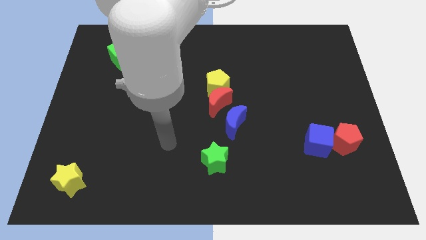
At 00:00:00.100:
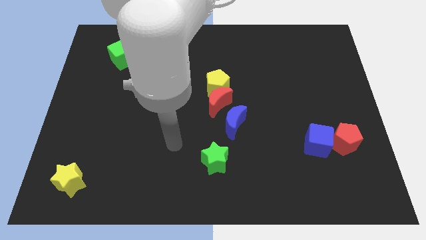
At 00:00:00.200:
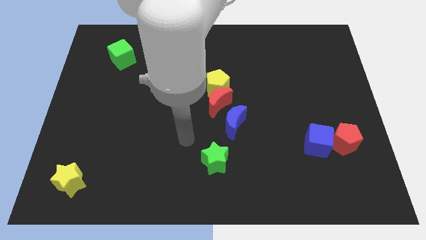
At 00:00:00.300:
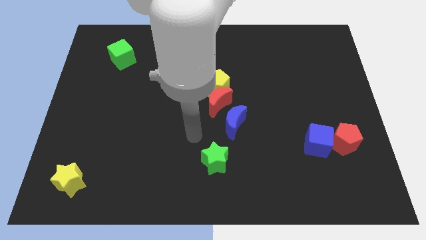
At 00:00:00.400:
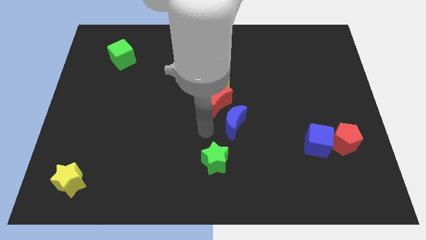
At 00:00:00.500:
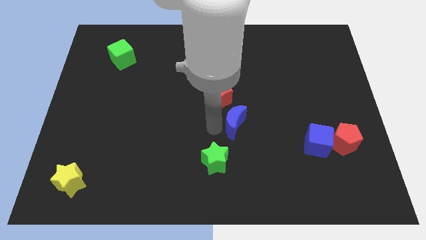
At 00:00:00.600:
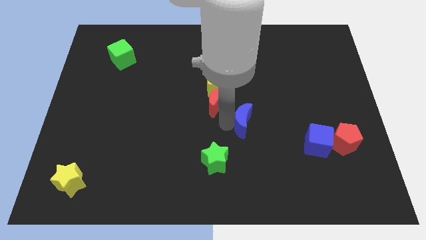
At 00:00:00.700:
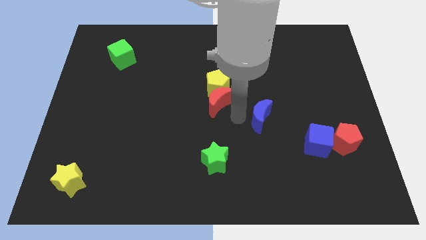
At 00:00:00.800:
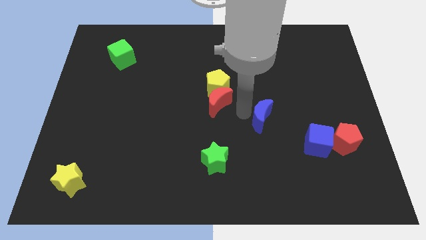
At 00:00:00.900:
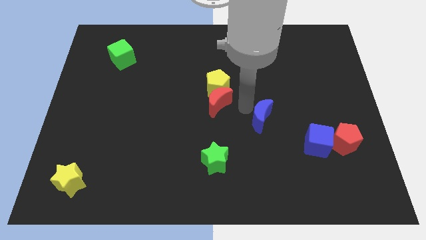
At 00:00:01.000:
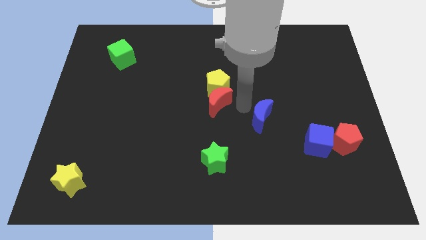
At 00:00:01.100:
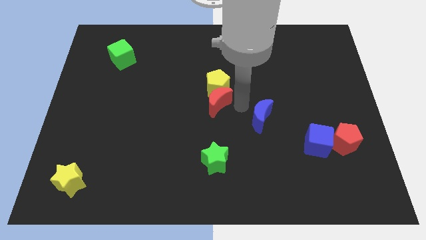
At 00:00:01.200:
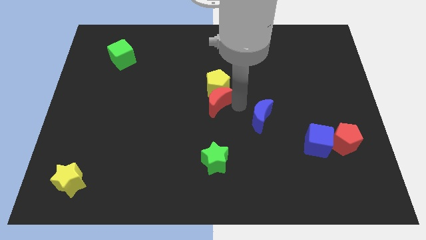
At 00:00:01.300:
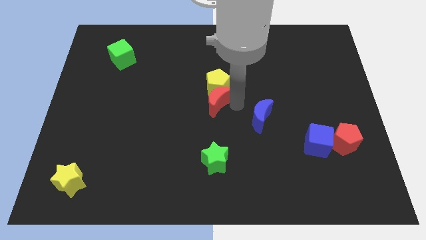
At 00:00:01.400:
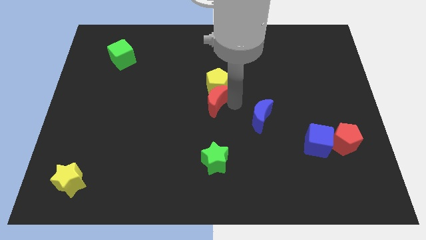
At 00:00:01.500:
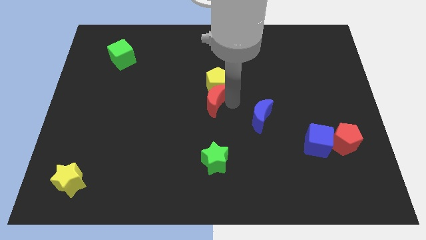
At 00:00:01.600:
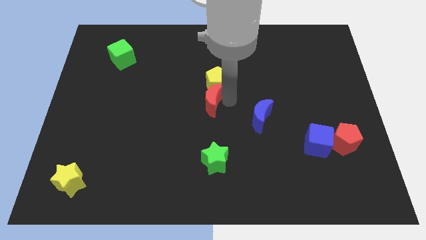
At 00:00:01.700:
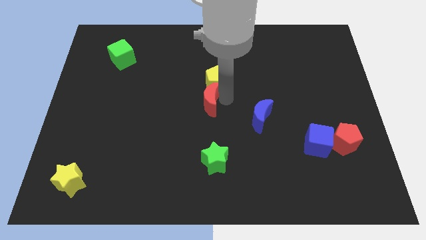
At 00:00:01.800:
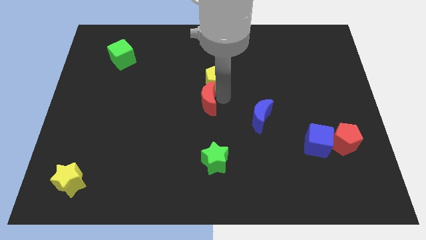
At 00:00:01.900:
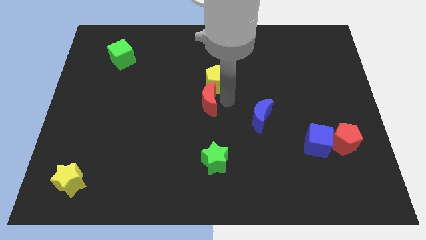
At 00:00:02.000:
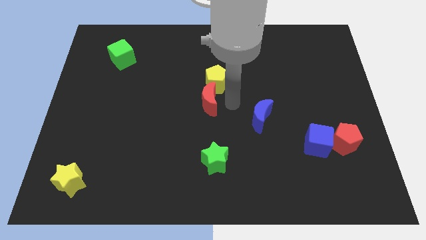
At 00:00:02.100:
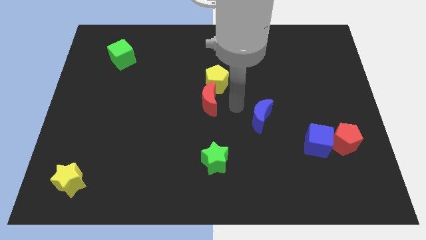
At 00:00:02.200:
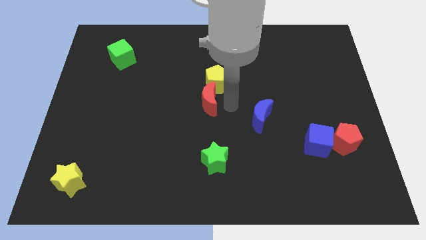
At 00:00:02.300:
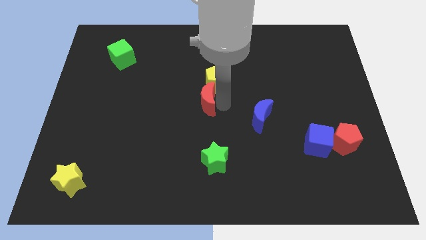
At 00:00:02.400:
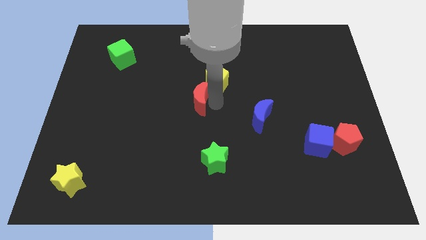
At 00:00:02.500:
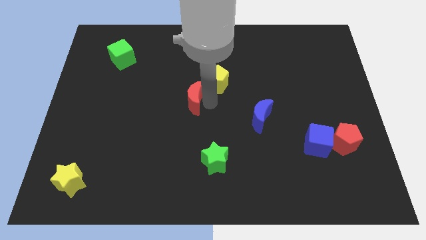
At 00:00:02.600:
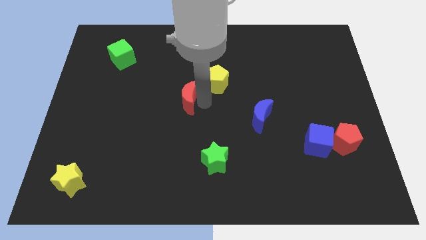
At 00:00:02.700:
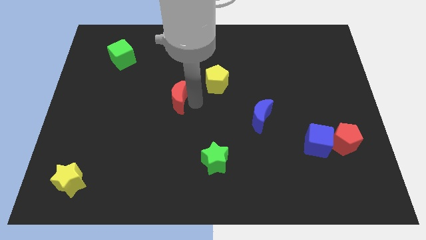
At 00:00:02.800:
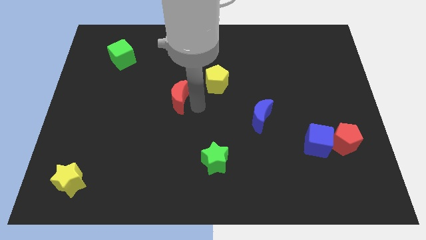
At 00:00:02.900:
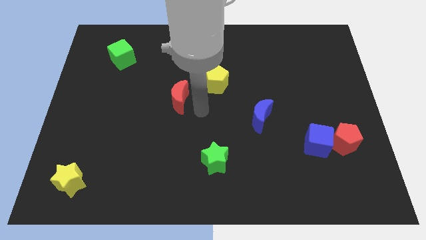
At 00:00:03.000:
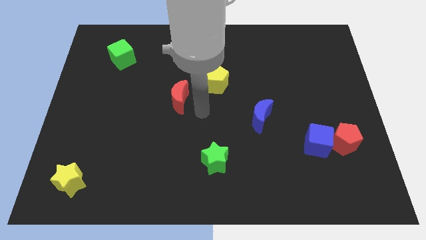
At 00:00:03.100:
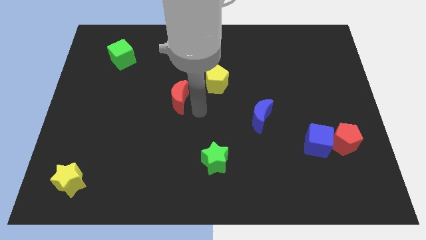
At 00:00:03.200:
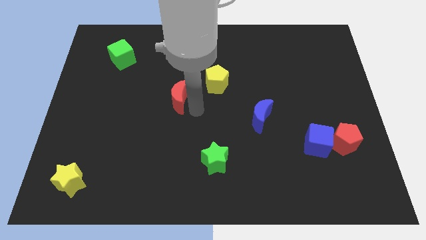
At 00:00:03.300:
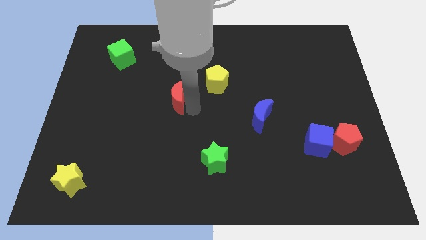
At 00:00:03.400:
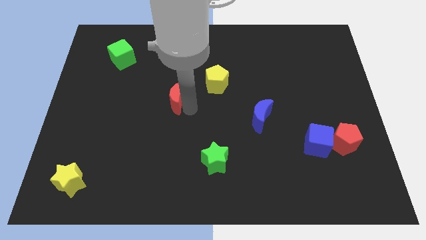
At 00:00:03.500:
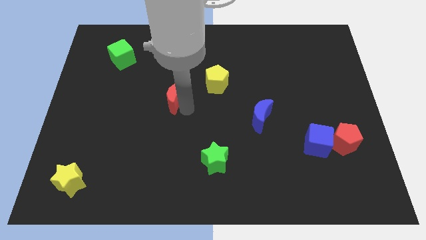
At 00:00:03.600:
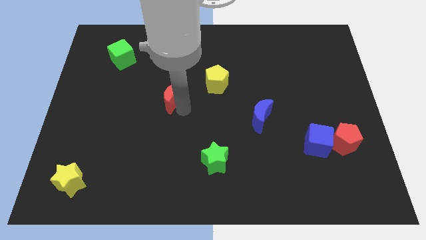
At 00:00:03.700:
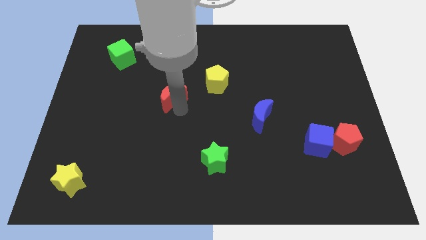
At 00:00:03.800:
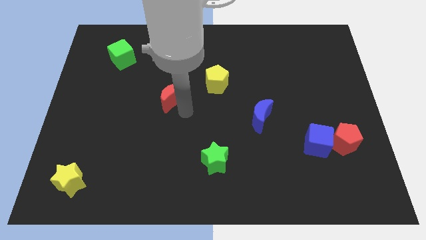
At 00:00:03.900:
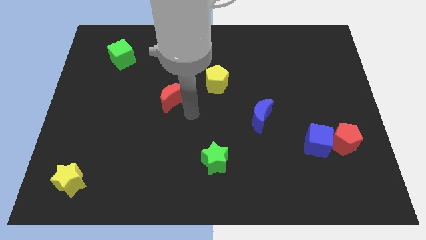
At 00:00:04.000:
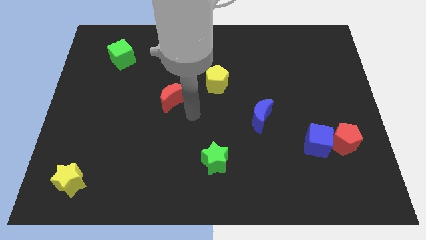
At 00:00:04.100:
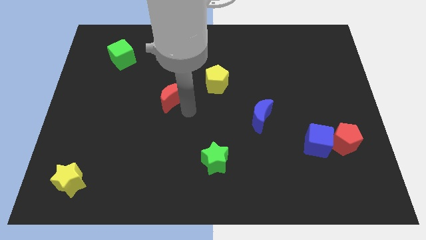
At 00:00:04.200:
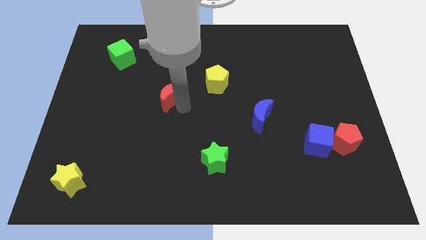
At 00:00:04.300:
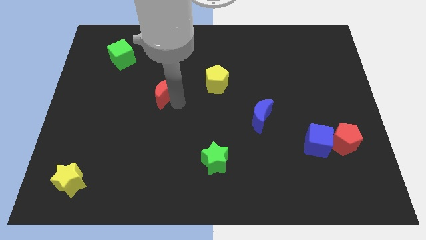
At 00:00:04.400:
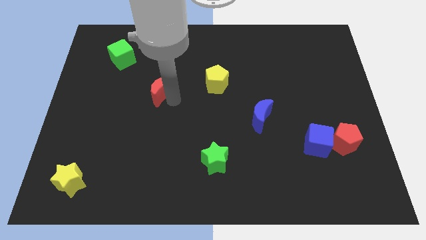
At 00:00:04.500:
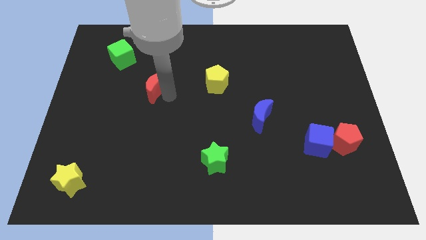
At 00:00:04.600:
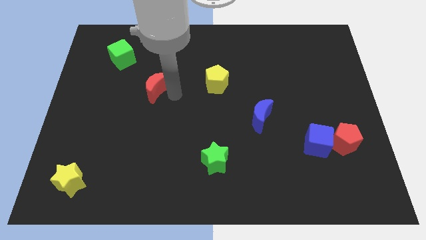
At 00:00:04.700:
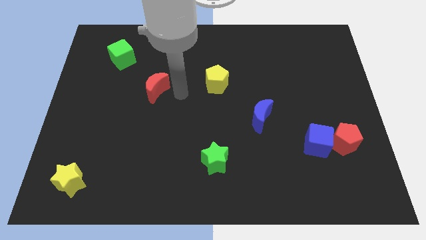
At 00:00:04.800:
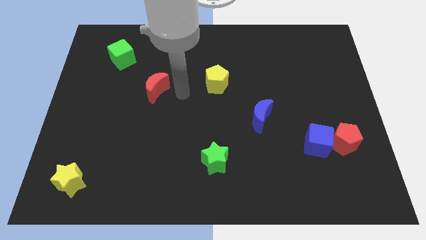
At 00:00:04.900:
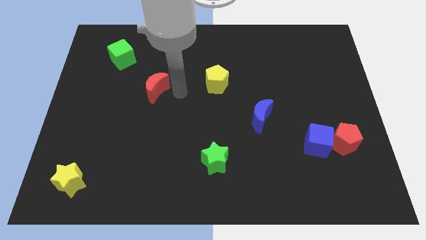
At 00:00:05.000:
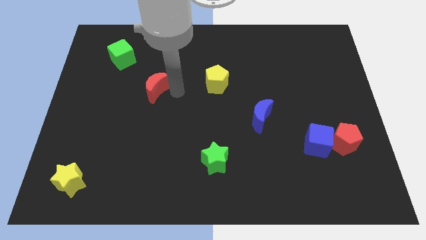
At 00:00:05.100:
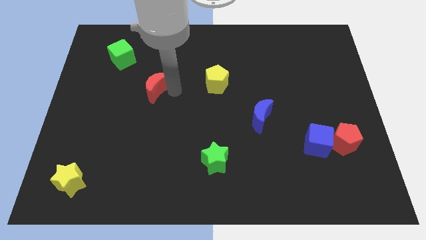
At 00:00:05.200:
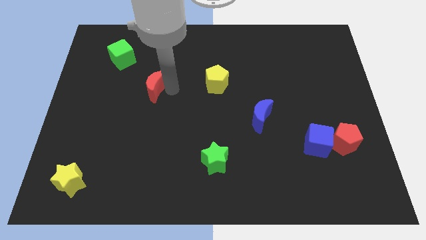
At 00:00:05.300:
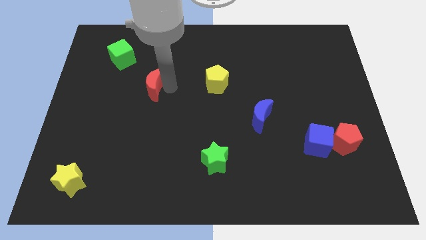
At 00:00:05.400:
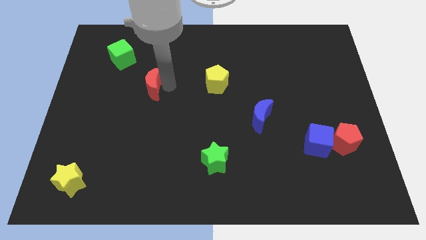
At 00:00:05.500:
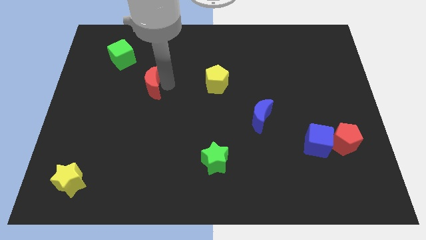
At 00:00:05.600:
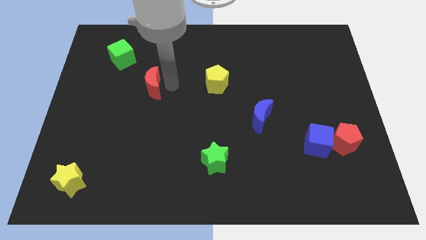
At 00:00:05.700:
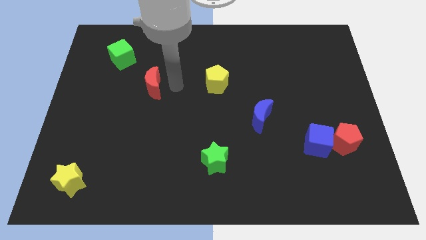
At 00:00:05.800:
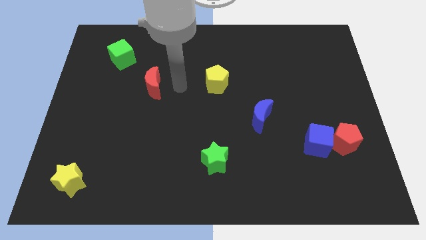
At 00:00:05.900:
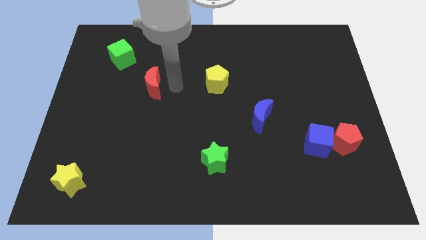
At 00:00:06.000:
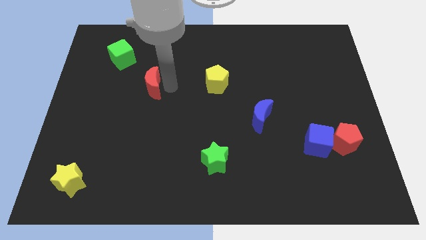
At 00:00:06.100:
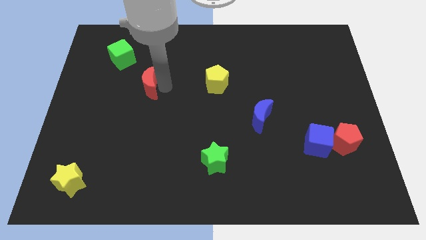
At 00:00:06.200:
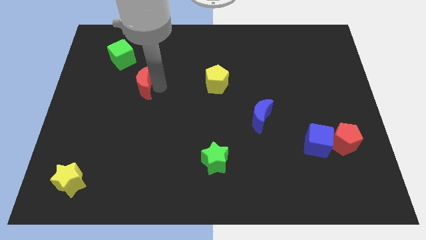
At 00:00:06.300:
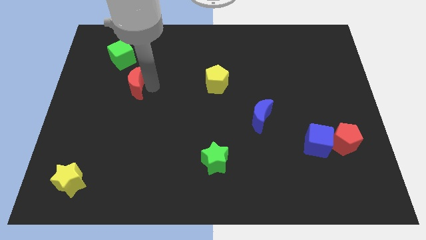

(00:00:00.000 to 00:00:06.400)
push the red moon below the green cube
